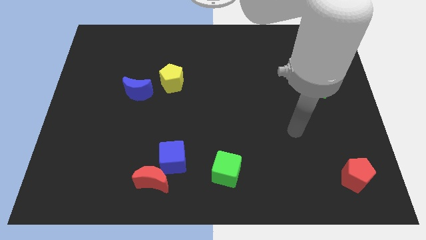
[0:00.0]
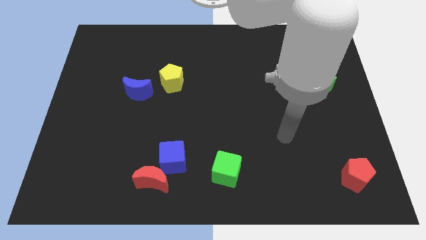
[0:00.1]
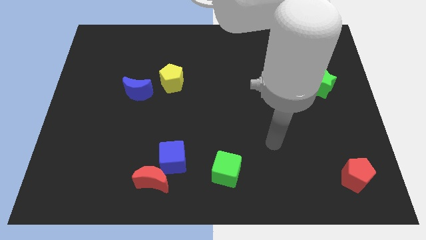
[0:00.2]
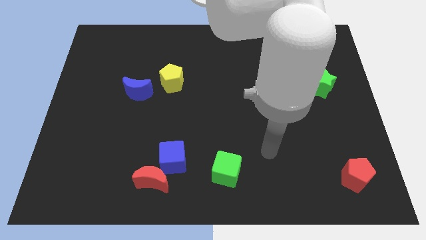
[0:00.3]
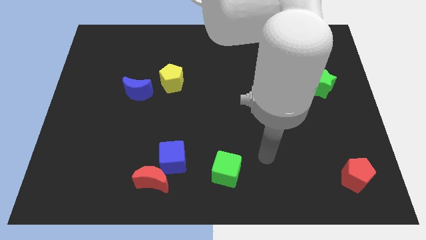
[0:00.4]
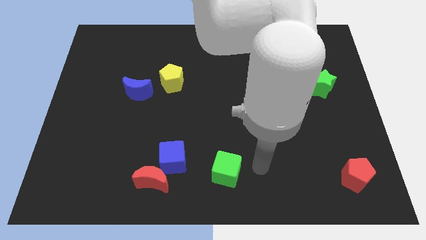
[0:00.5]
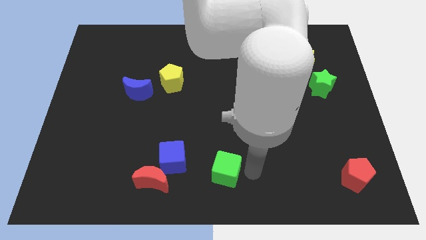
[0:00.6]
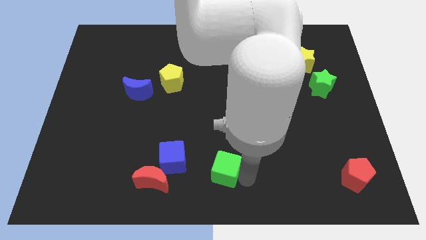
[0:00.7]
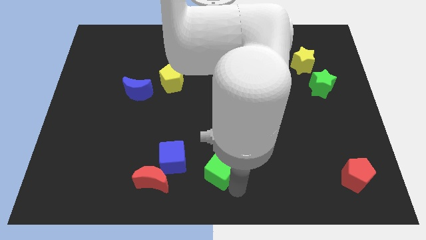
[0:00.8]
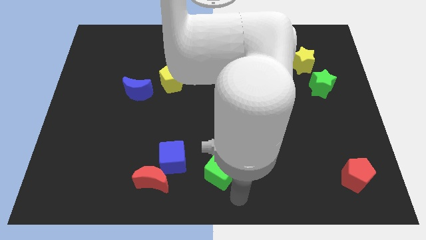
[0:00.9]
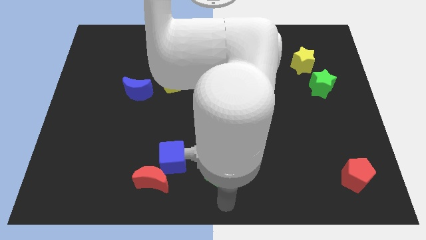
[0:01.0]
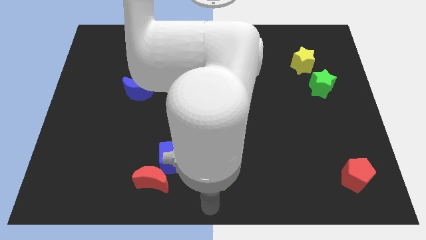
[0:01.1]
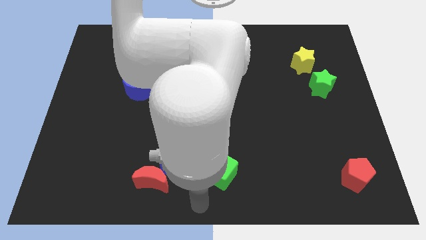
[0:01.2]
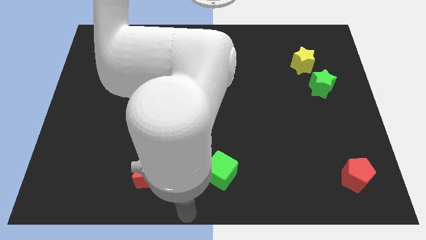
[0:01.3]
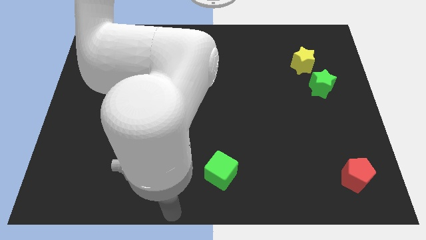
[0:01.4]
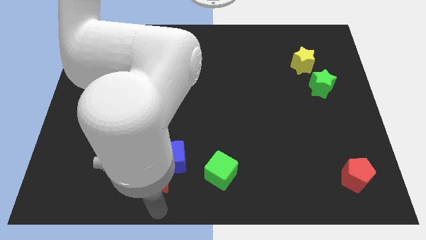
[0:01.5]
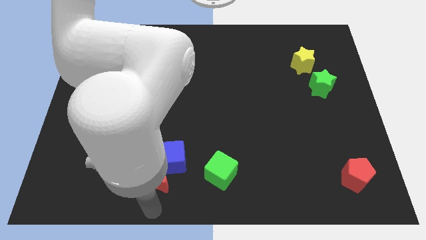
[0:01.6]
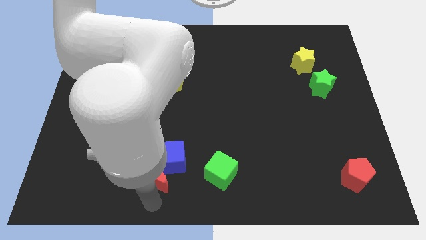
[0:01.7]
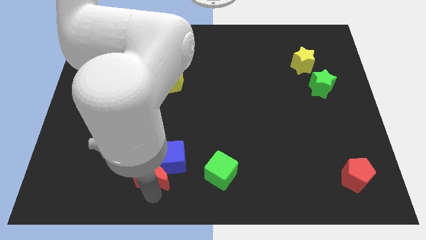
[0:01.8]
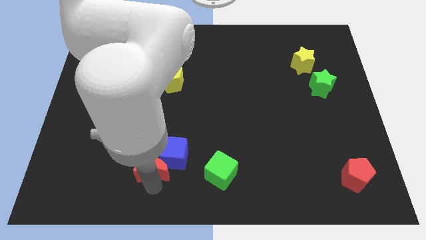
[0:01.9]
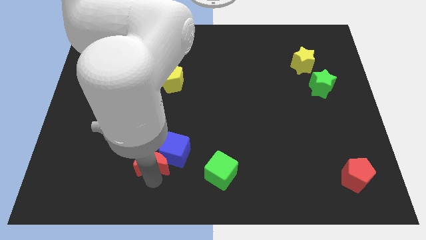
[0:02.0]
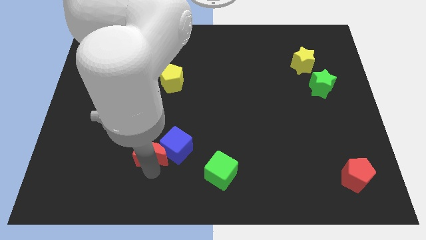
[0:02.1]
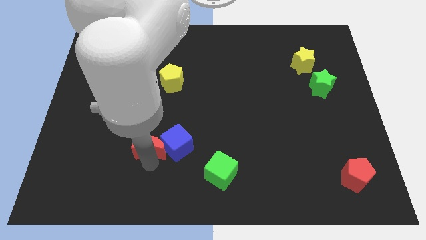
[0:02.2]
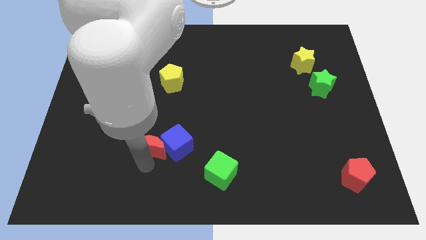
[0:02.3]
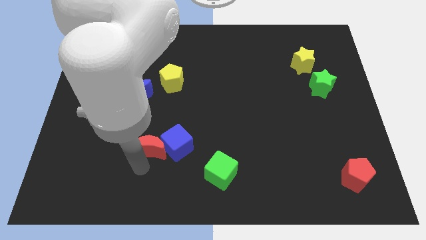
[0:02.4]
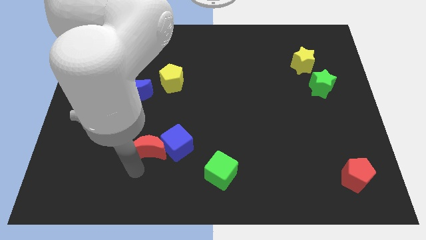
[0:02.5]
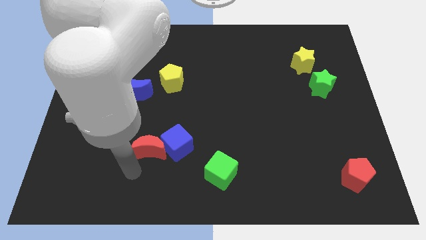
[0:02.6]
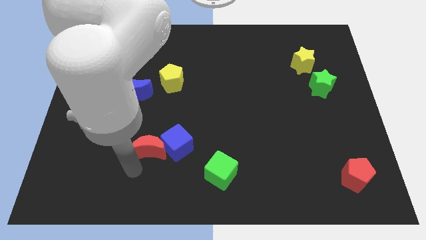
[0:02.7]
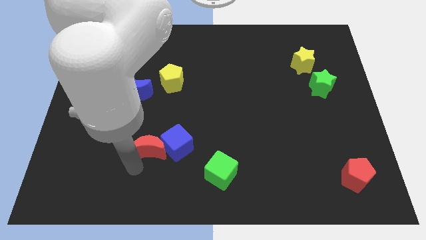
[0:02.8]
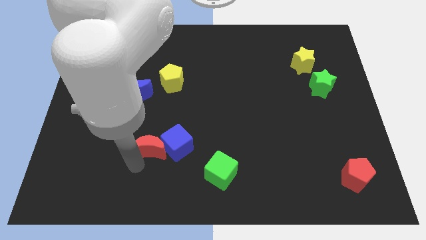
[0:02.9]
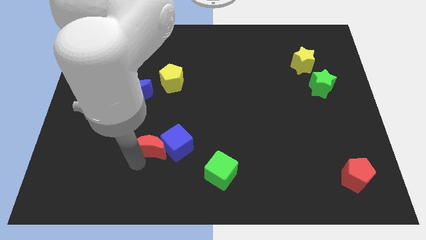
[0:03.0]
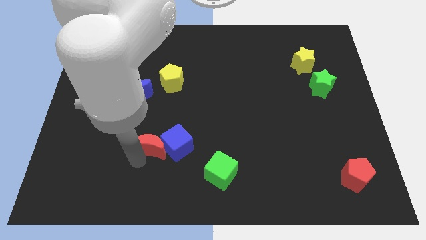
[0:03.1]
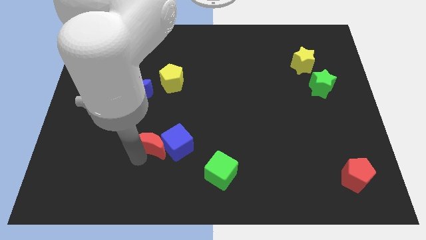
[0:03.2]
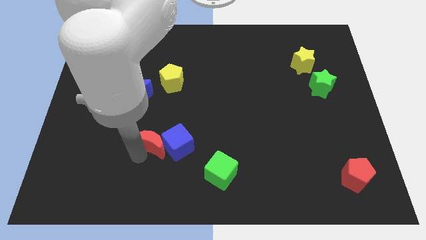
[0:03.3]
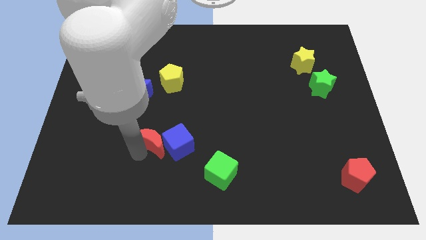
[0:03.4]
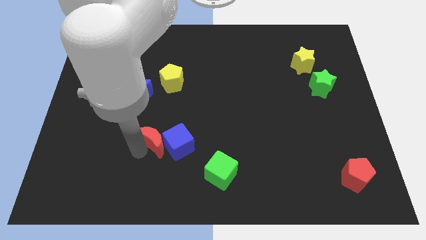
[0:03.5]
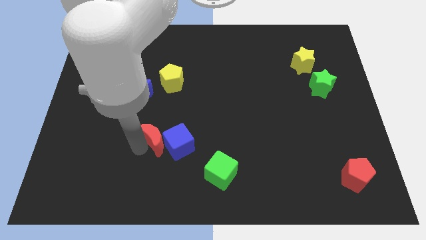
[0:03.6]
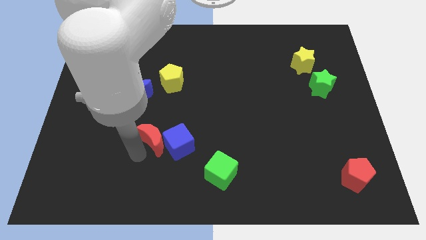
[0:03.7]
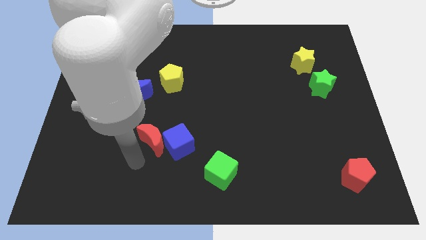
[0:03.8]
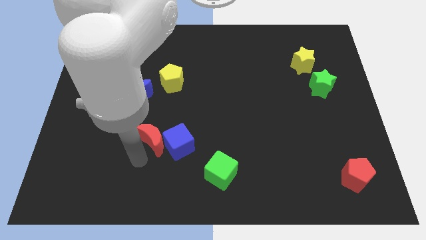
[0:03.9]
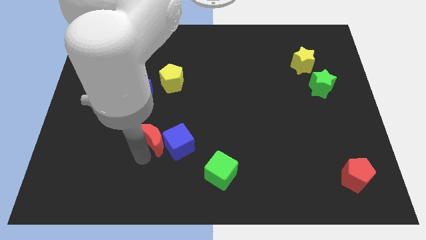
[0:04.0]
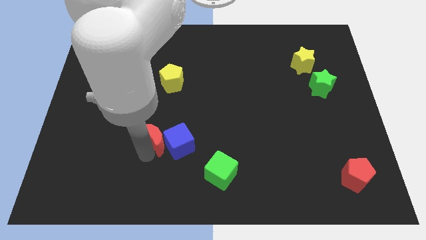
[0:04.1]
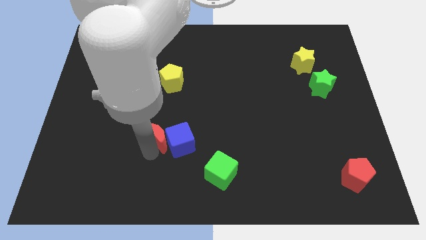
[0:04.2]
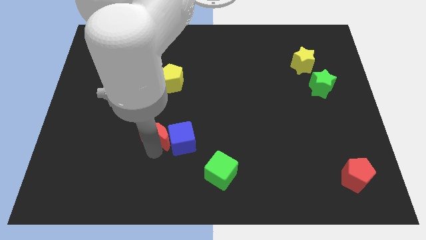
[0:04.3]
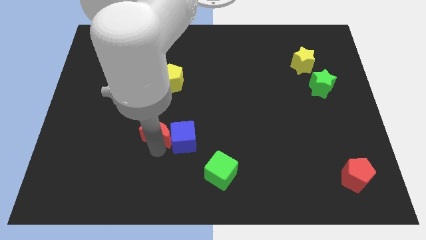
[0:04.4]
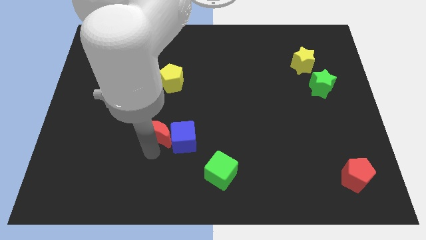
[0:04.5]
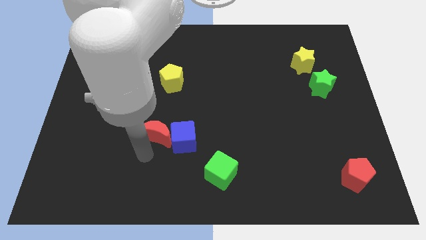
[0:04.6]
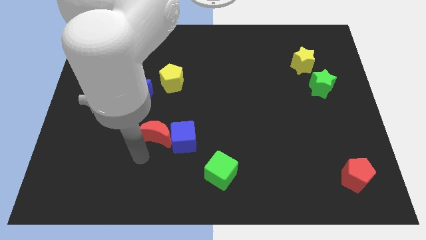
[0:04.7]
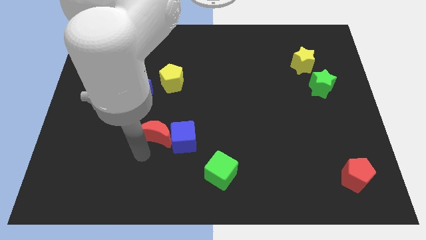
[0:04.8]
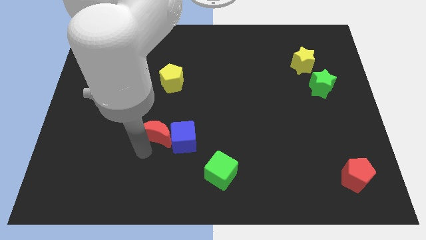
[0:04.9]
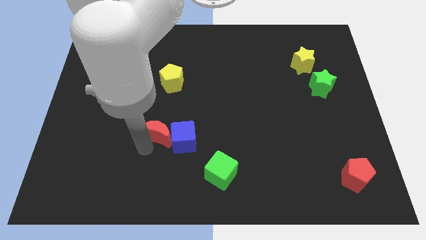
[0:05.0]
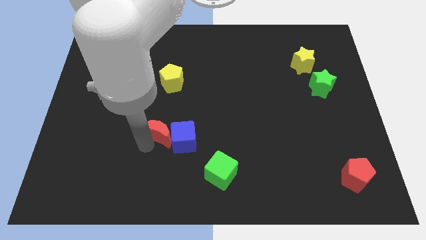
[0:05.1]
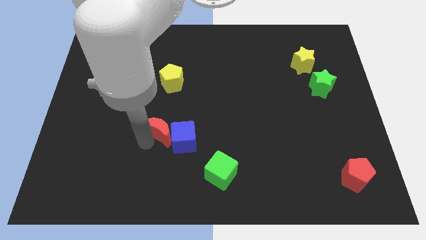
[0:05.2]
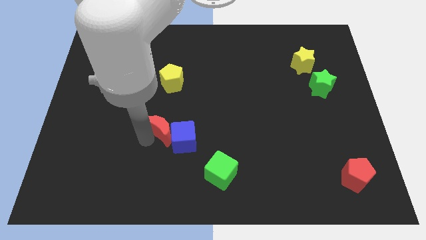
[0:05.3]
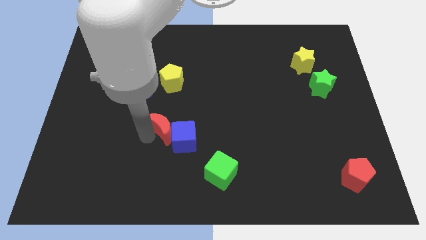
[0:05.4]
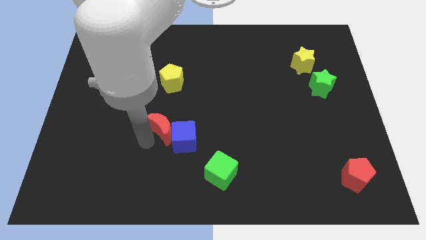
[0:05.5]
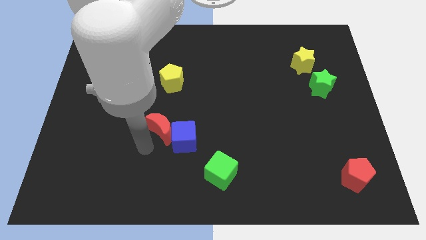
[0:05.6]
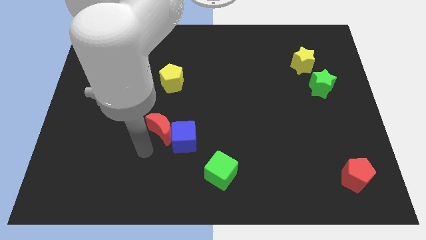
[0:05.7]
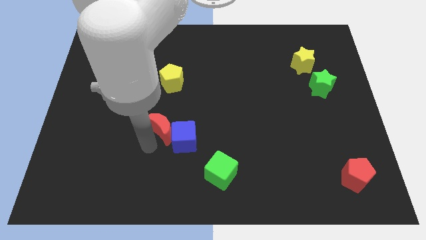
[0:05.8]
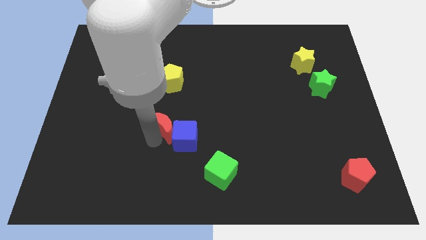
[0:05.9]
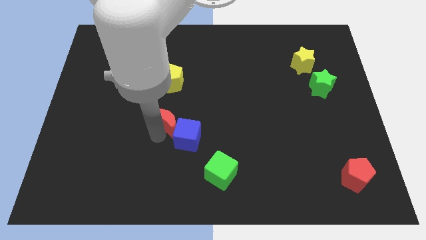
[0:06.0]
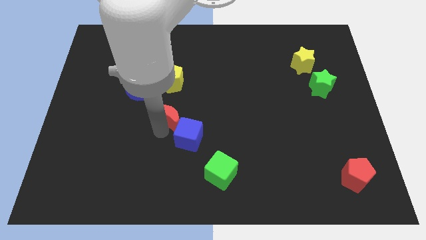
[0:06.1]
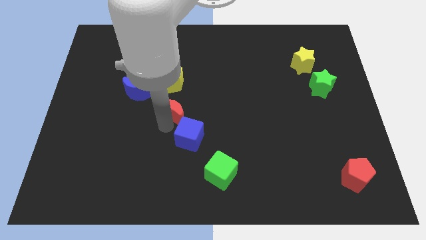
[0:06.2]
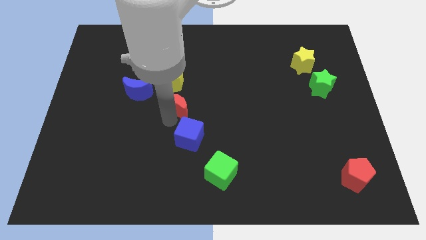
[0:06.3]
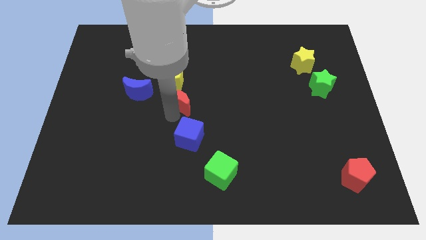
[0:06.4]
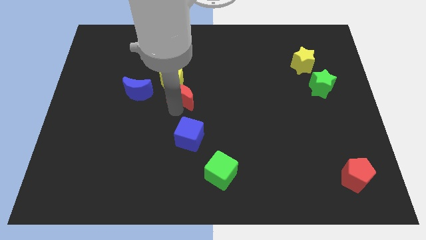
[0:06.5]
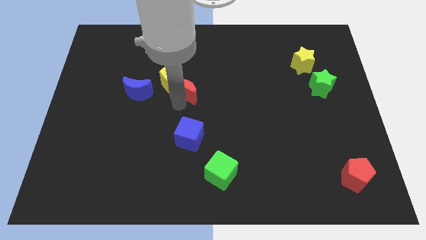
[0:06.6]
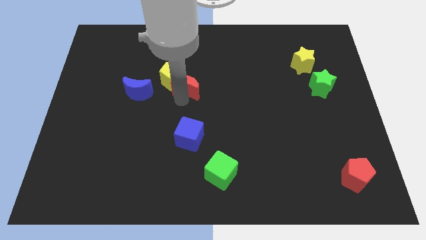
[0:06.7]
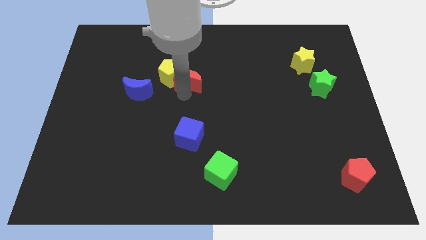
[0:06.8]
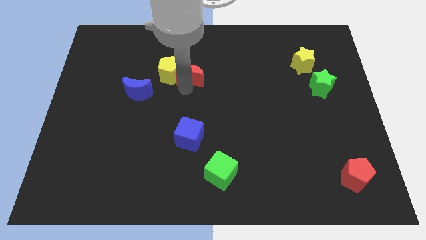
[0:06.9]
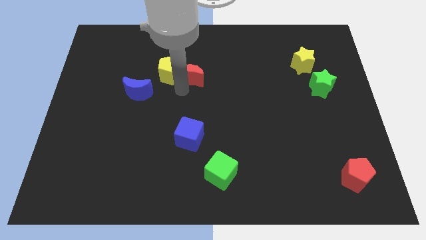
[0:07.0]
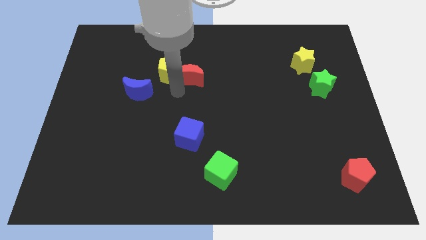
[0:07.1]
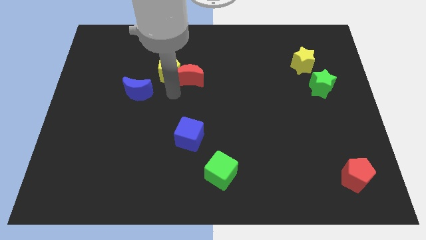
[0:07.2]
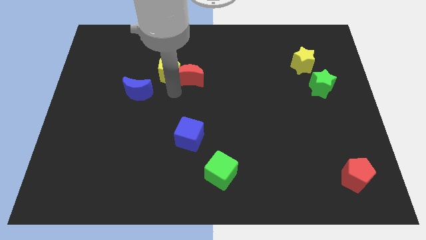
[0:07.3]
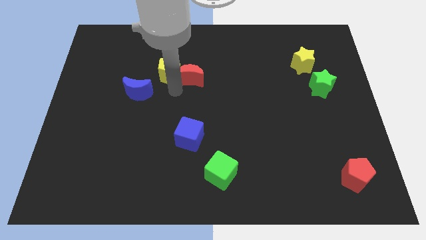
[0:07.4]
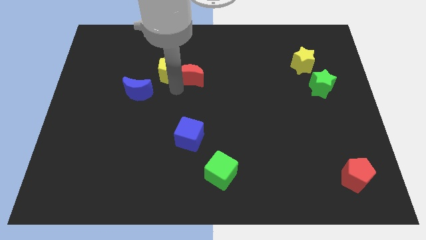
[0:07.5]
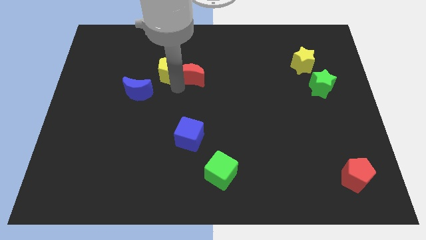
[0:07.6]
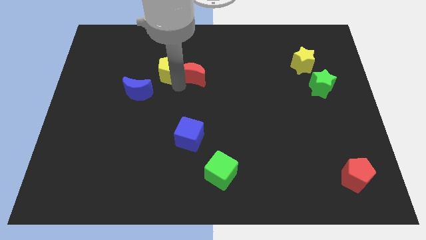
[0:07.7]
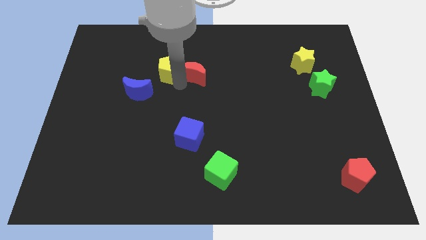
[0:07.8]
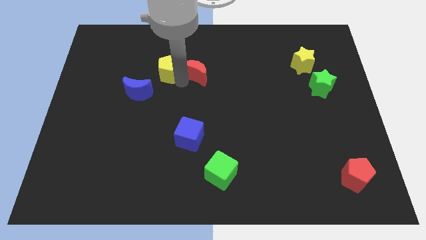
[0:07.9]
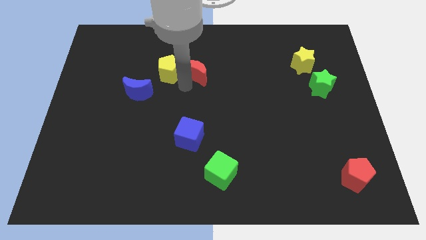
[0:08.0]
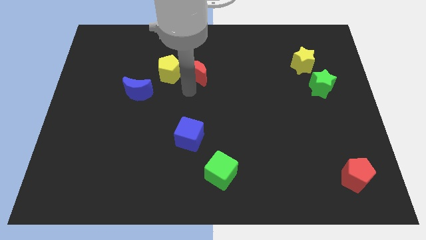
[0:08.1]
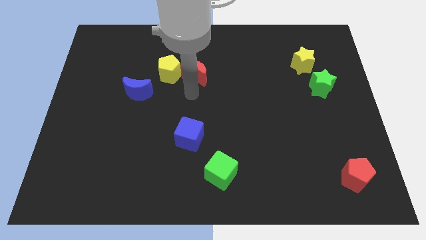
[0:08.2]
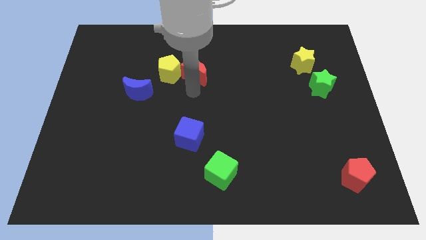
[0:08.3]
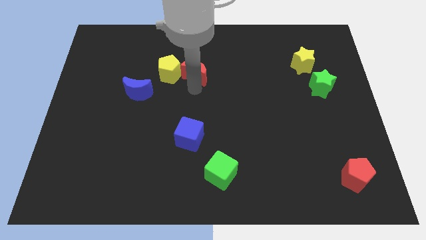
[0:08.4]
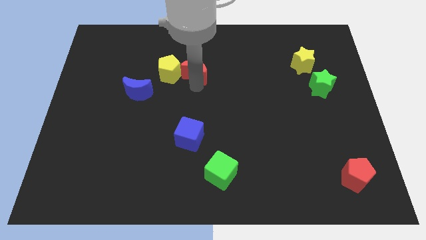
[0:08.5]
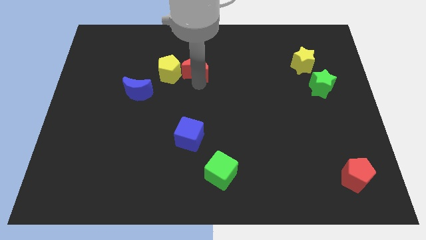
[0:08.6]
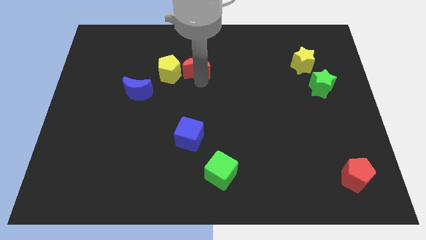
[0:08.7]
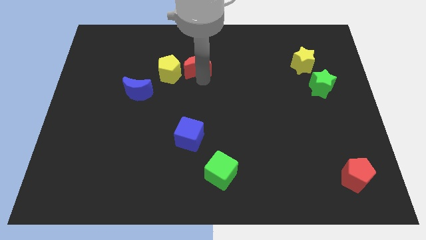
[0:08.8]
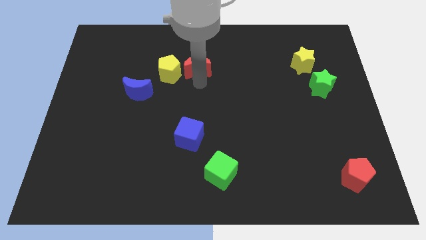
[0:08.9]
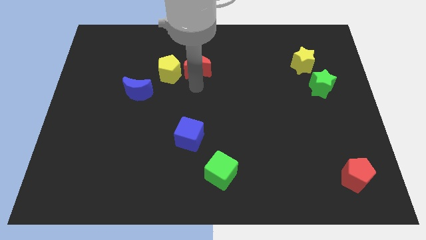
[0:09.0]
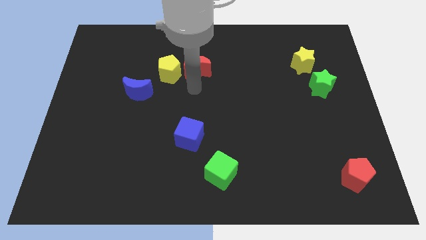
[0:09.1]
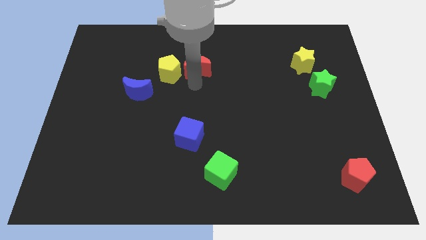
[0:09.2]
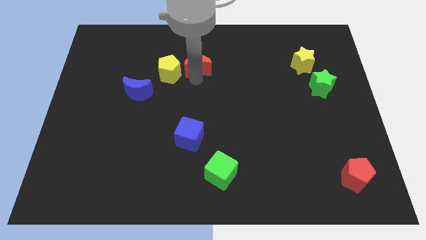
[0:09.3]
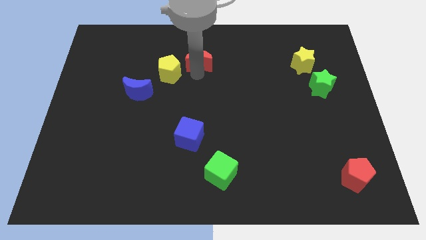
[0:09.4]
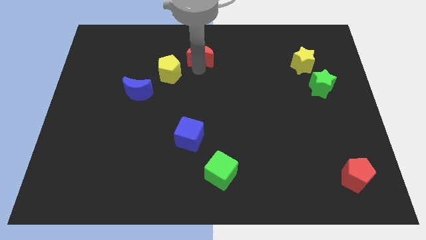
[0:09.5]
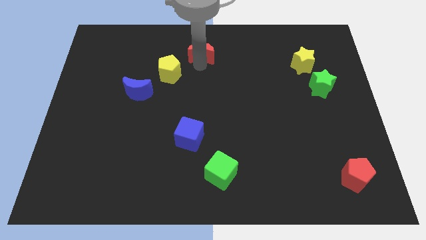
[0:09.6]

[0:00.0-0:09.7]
push the red moon to the top
